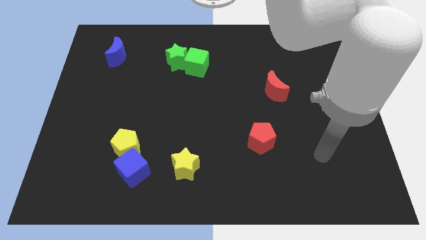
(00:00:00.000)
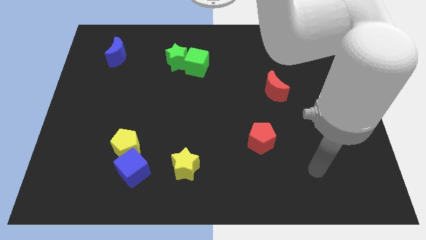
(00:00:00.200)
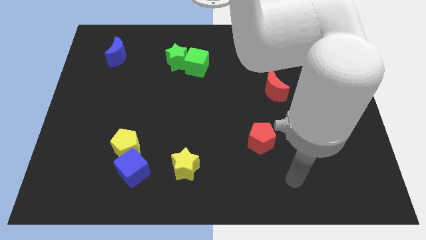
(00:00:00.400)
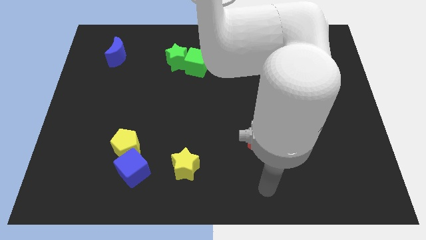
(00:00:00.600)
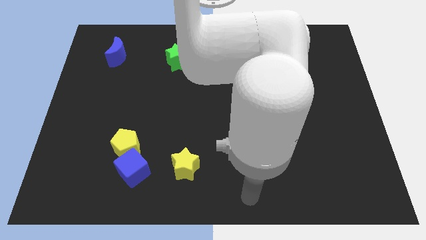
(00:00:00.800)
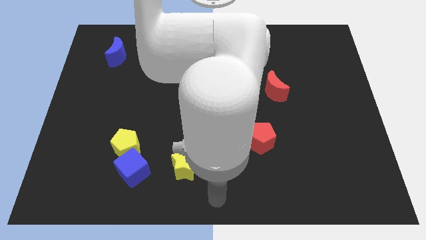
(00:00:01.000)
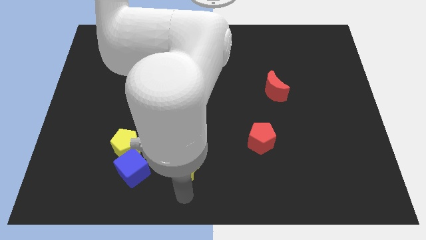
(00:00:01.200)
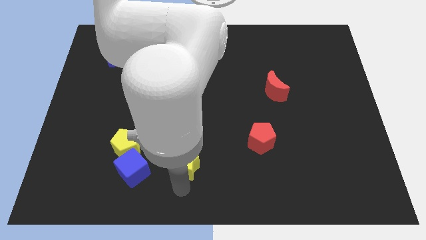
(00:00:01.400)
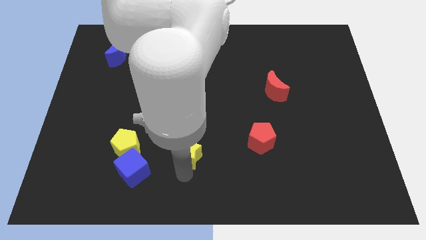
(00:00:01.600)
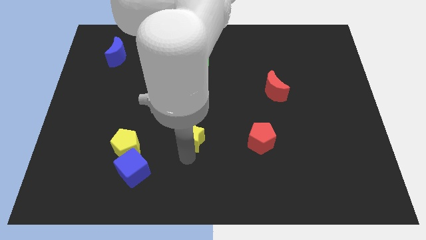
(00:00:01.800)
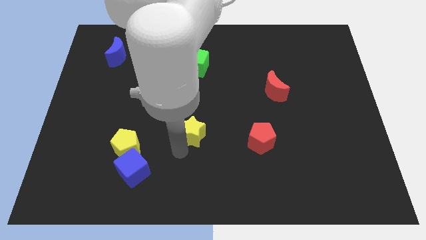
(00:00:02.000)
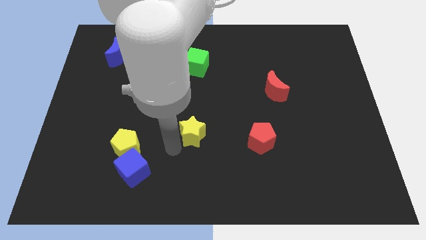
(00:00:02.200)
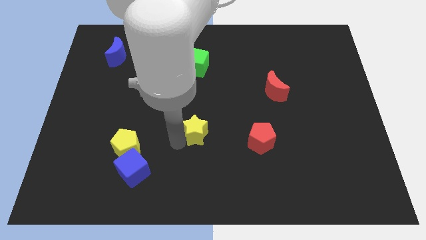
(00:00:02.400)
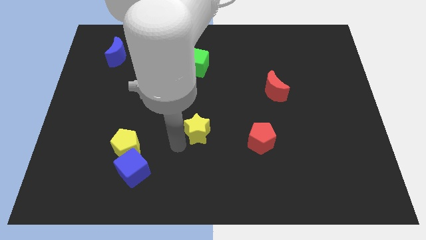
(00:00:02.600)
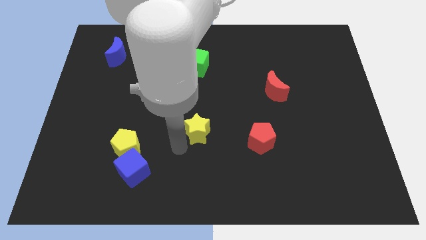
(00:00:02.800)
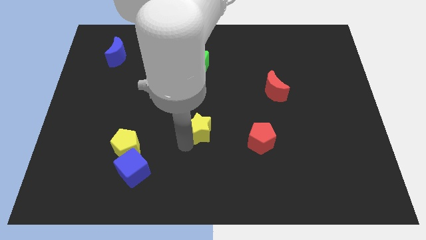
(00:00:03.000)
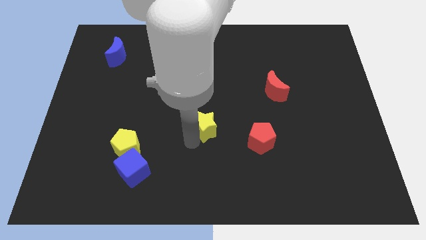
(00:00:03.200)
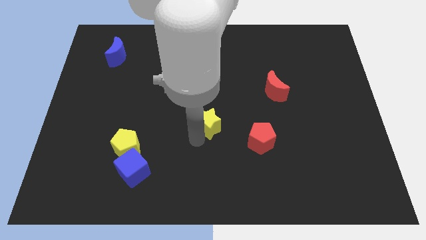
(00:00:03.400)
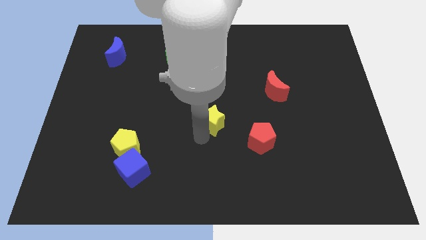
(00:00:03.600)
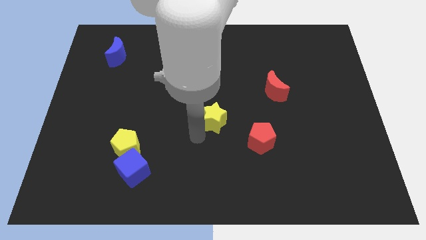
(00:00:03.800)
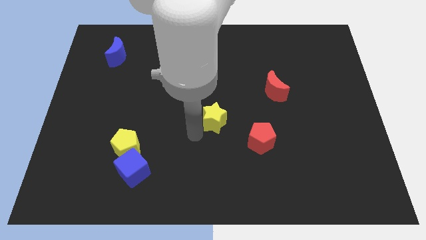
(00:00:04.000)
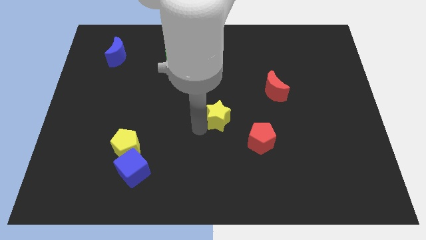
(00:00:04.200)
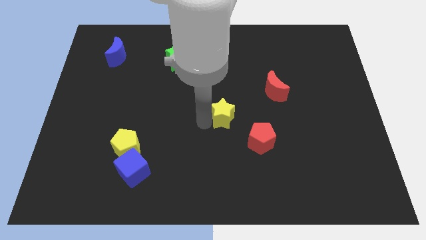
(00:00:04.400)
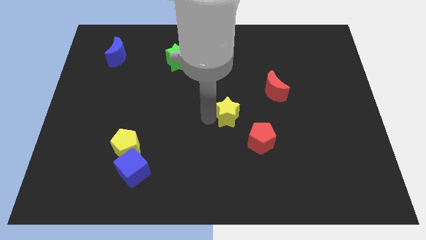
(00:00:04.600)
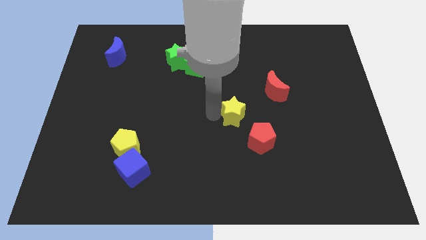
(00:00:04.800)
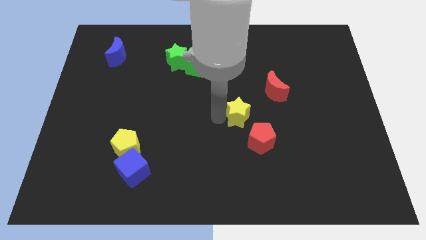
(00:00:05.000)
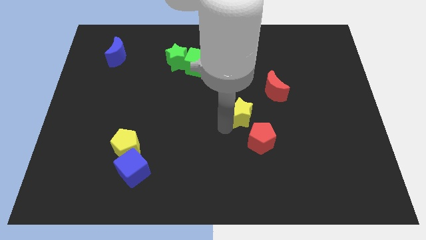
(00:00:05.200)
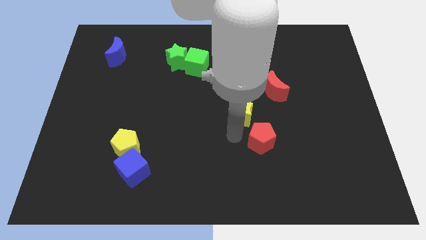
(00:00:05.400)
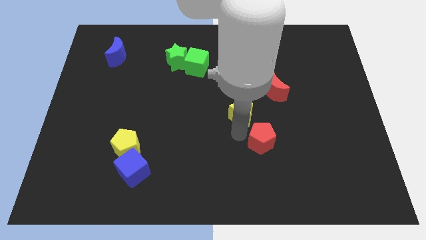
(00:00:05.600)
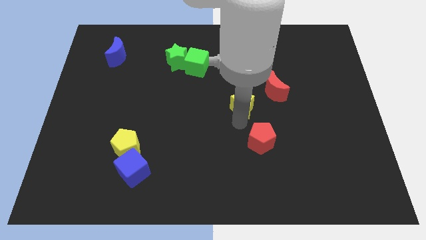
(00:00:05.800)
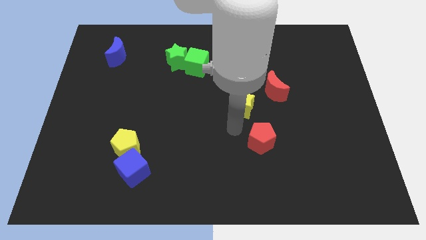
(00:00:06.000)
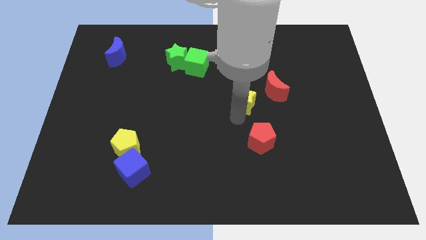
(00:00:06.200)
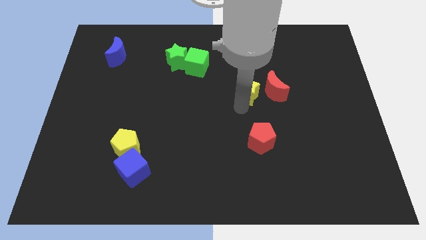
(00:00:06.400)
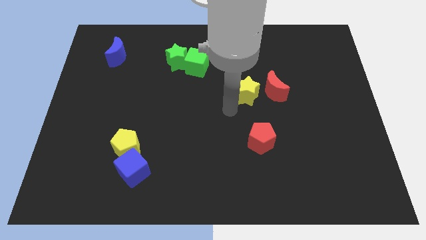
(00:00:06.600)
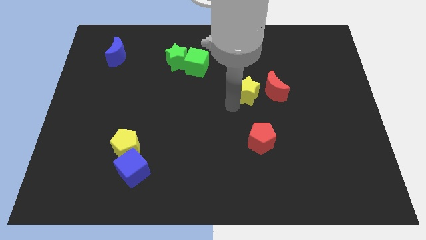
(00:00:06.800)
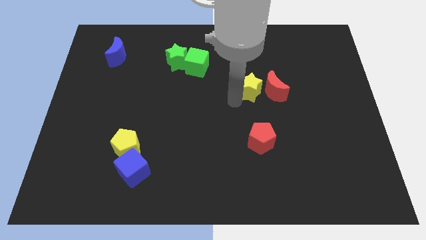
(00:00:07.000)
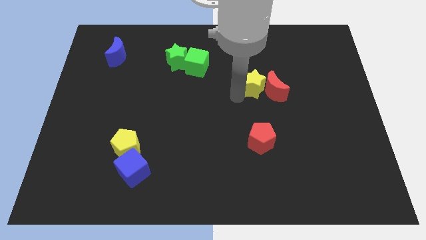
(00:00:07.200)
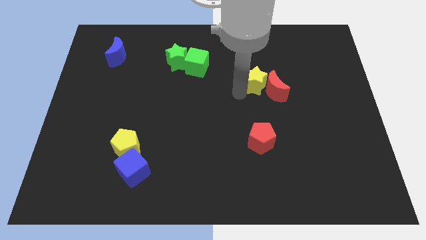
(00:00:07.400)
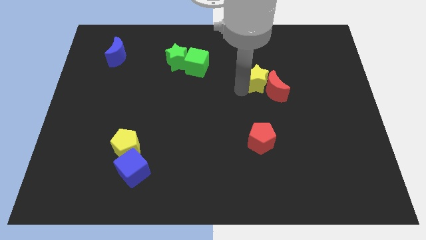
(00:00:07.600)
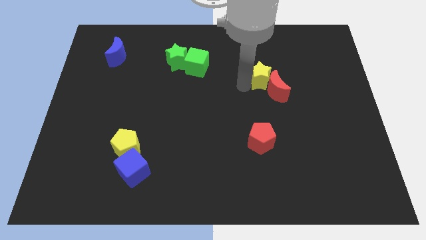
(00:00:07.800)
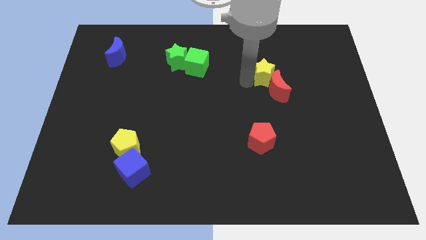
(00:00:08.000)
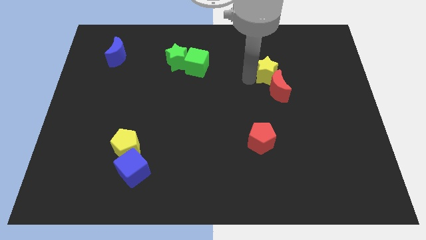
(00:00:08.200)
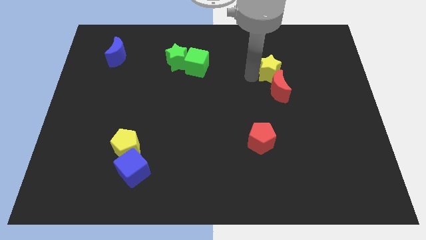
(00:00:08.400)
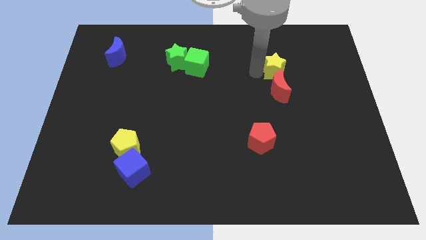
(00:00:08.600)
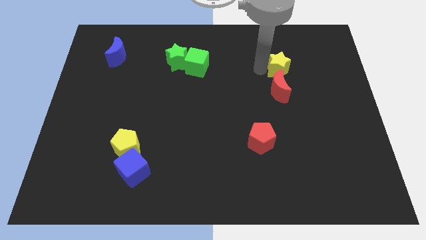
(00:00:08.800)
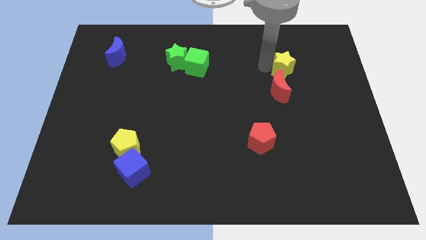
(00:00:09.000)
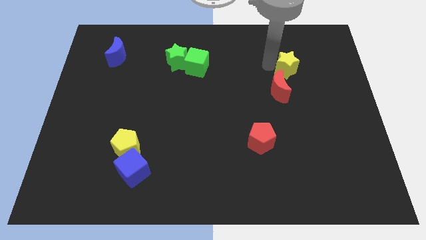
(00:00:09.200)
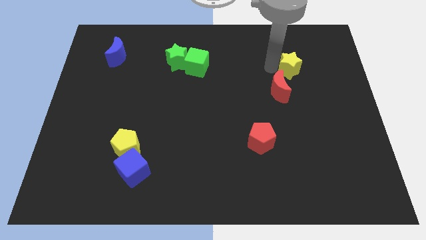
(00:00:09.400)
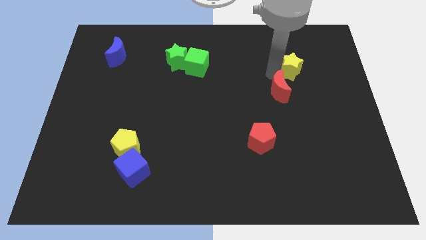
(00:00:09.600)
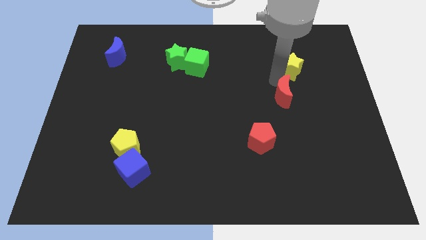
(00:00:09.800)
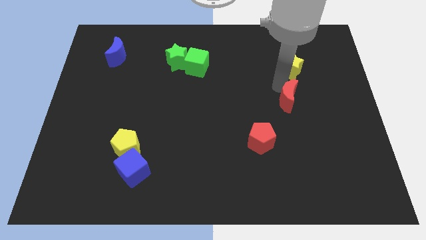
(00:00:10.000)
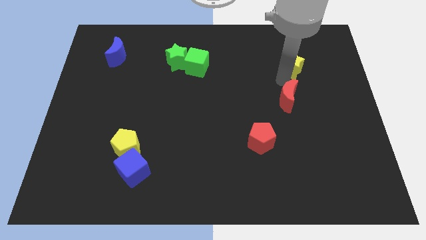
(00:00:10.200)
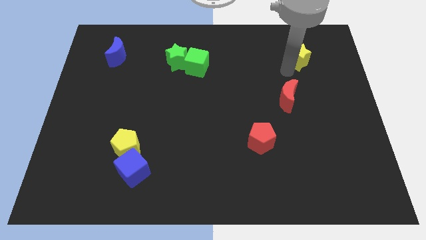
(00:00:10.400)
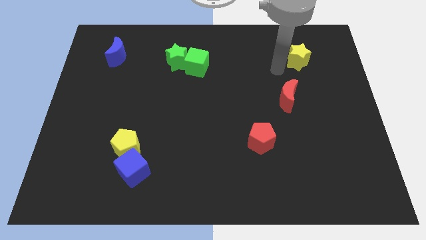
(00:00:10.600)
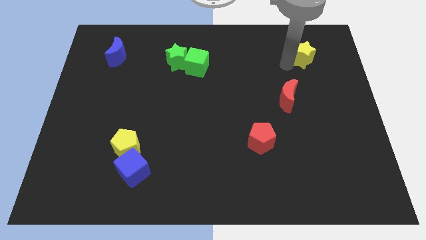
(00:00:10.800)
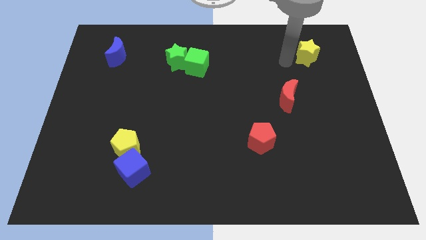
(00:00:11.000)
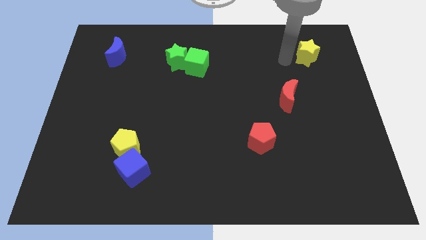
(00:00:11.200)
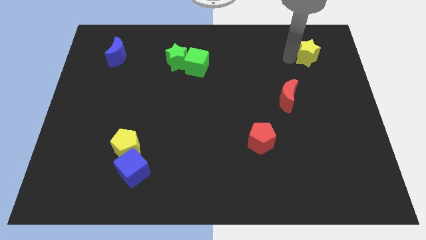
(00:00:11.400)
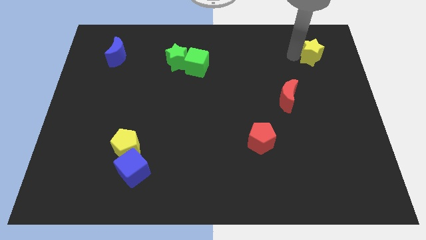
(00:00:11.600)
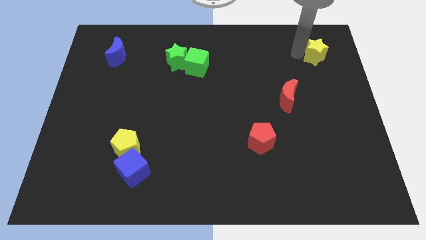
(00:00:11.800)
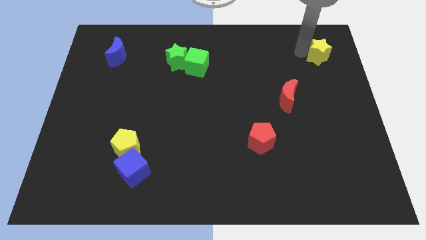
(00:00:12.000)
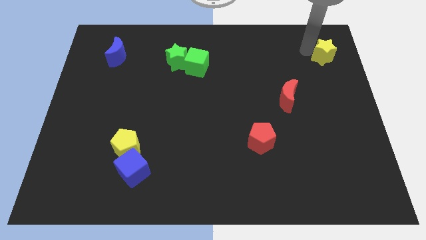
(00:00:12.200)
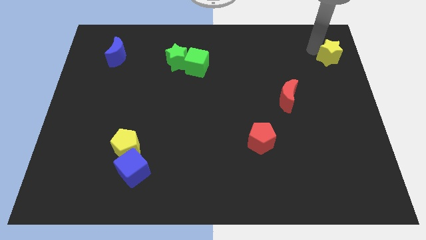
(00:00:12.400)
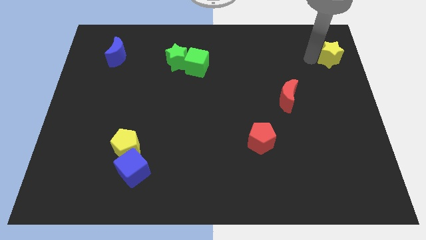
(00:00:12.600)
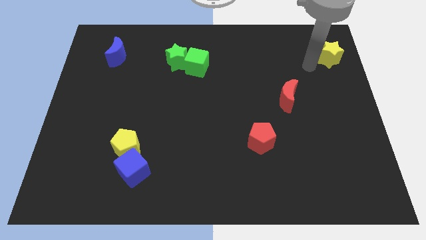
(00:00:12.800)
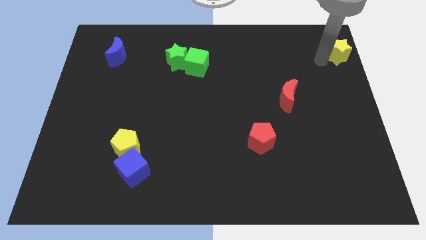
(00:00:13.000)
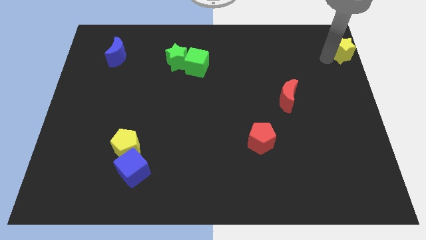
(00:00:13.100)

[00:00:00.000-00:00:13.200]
push the yellow star to the top right
